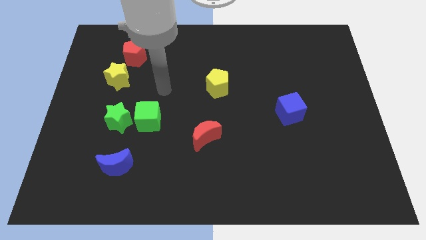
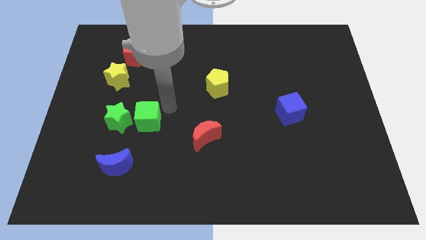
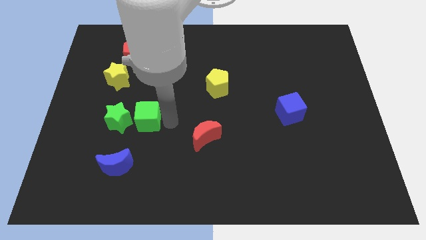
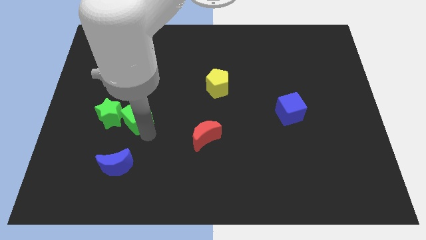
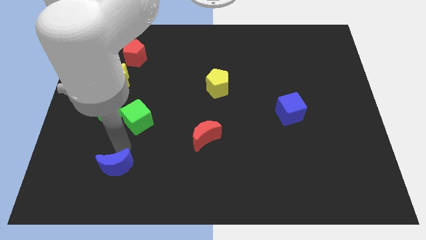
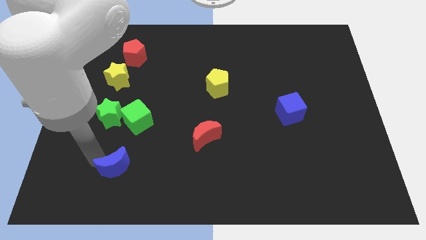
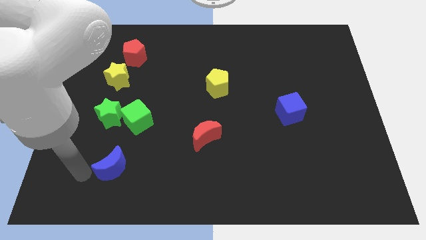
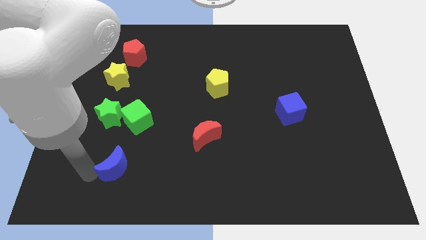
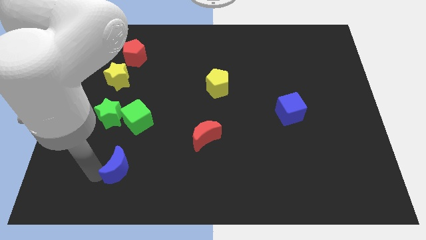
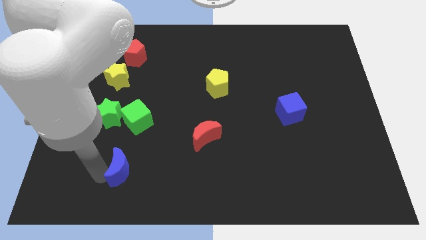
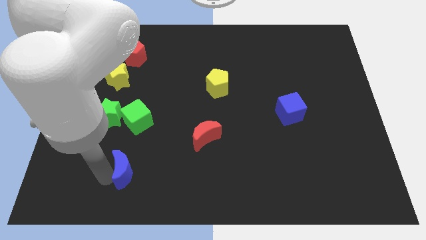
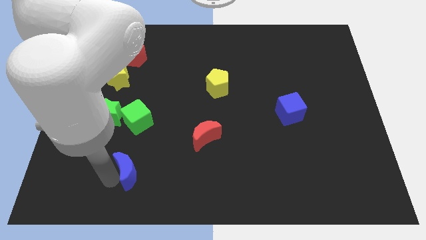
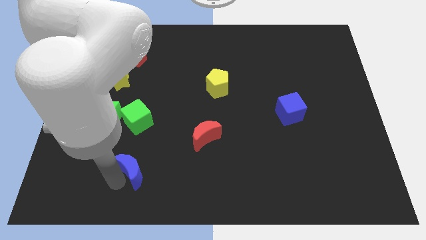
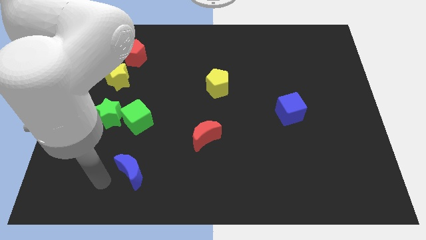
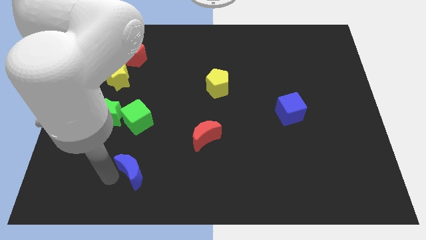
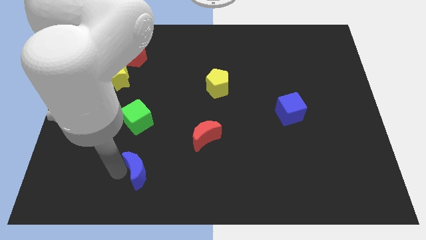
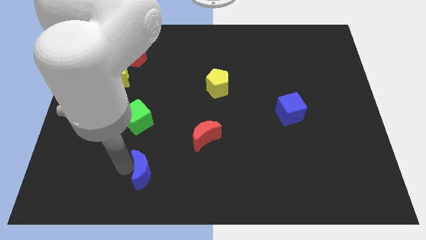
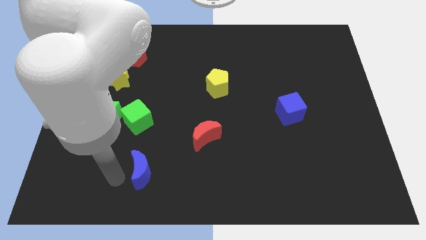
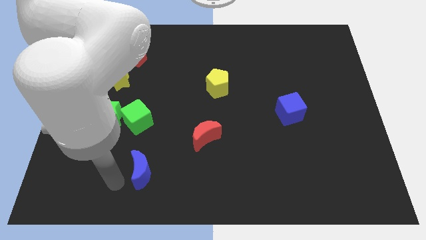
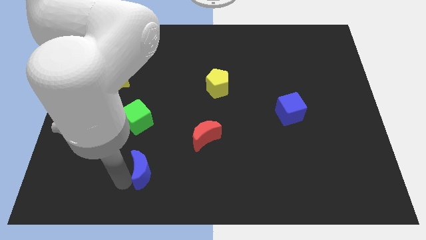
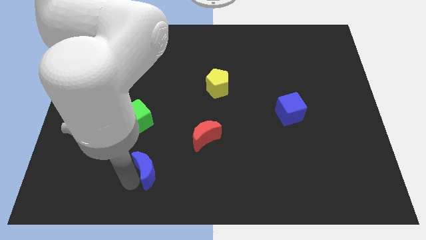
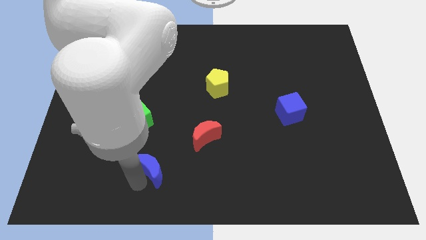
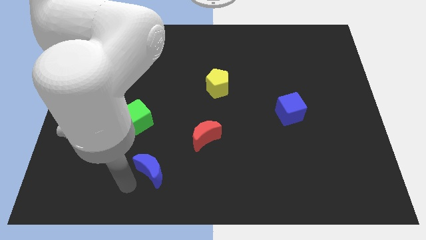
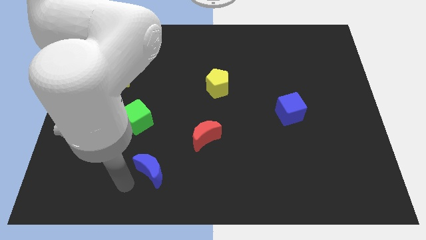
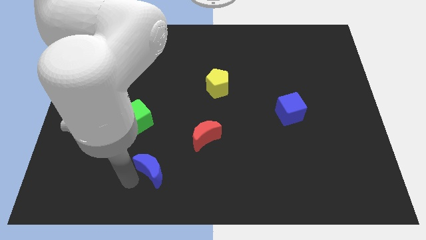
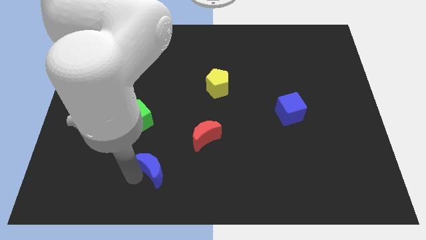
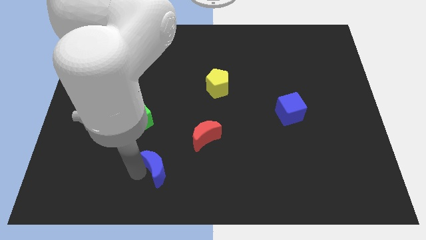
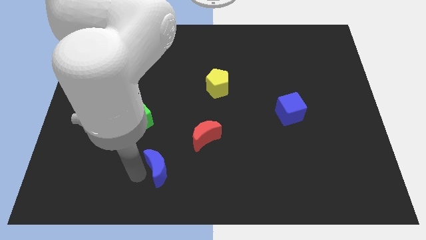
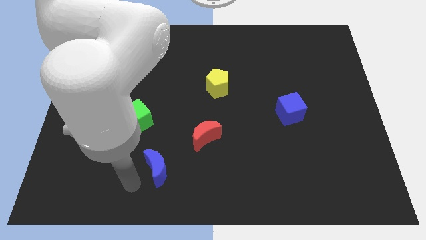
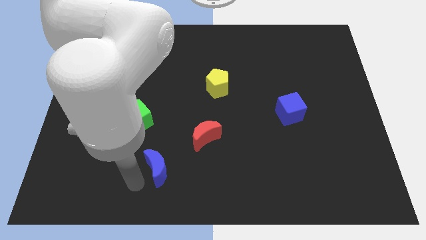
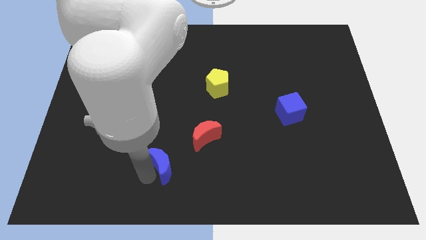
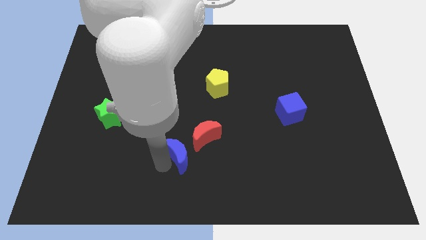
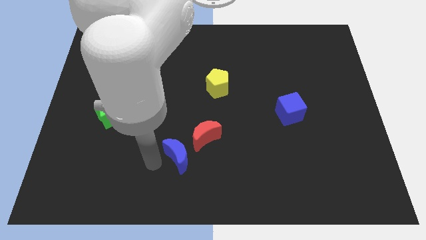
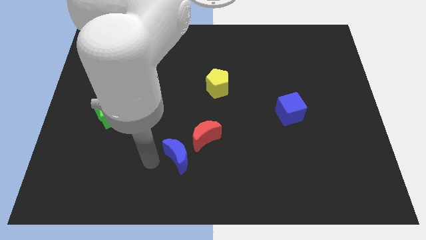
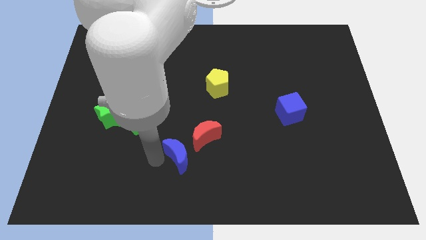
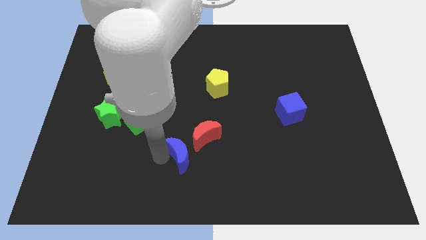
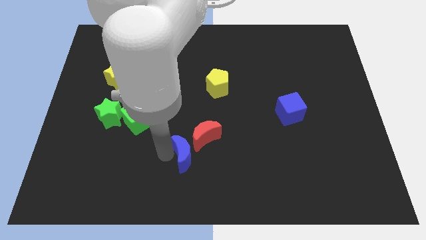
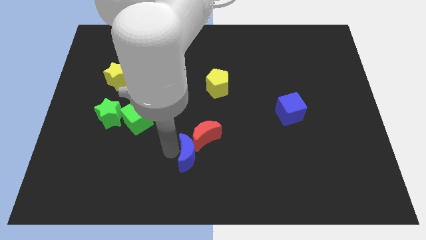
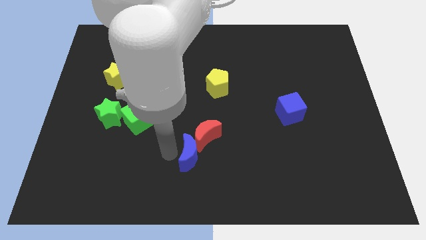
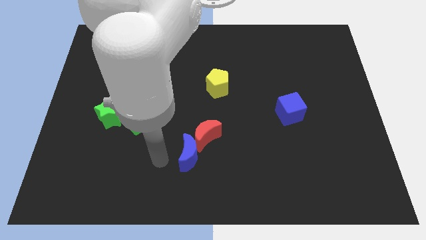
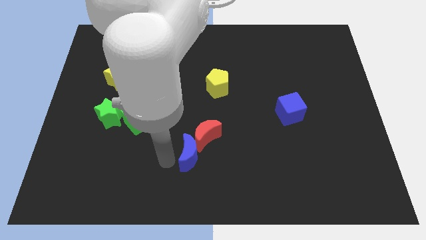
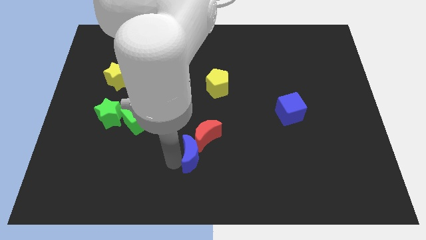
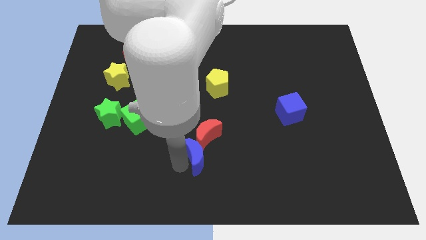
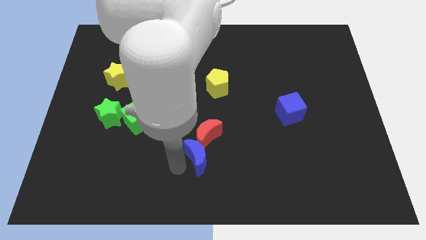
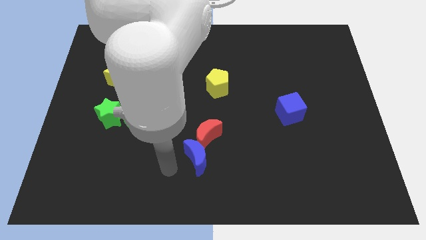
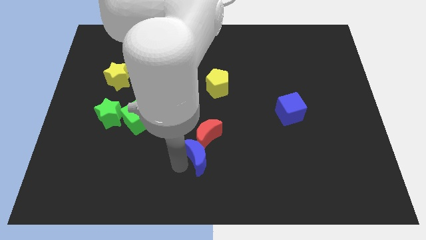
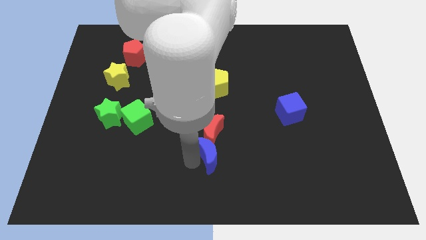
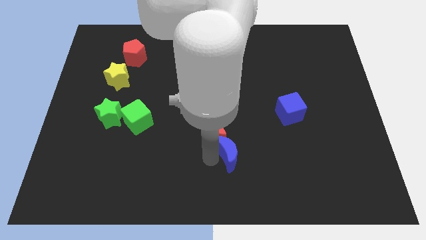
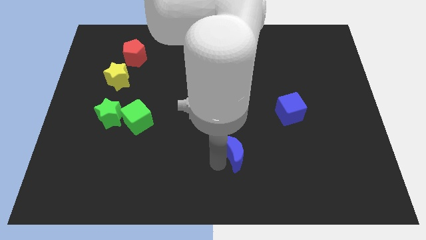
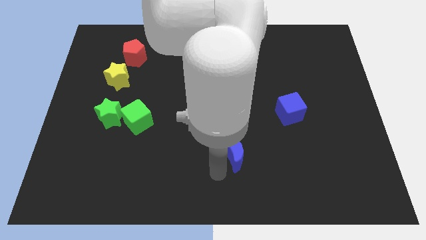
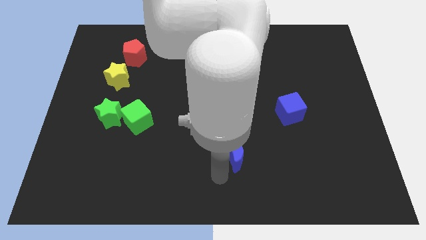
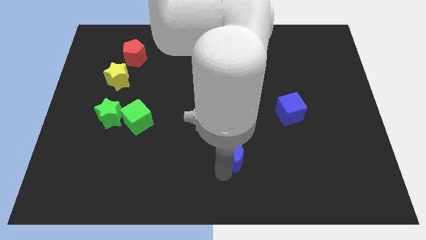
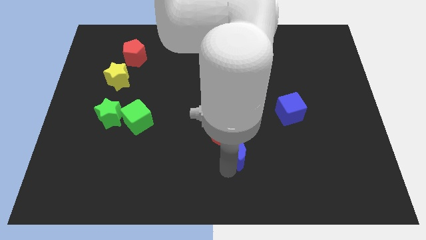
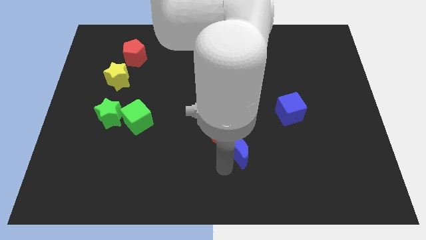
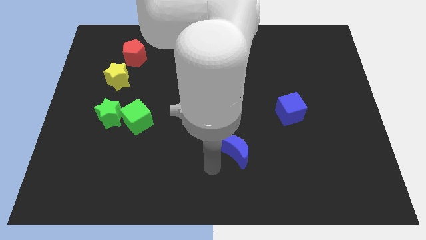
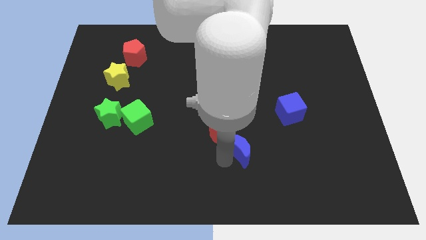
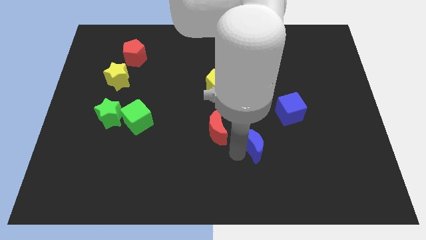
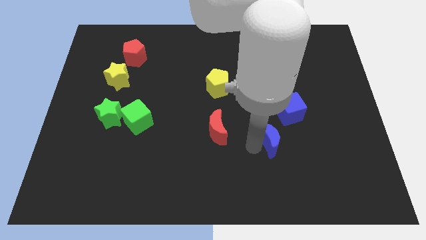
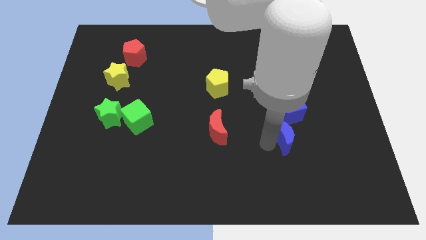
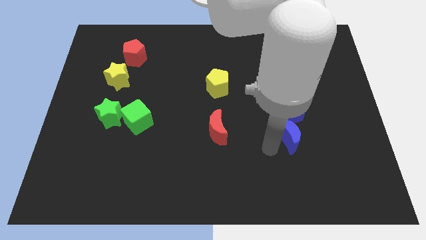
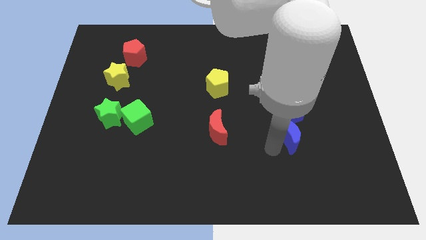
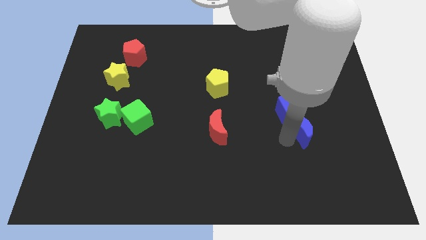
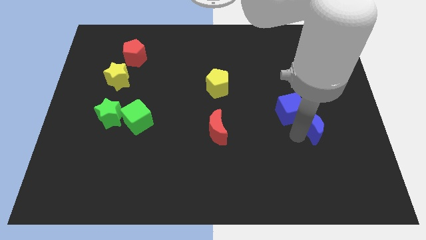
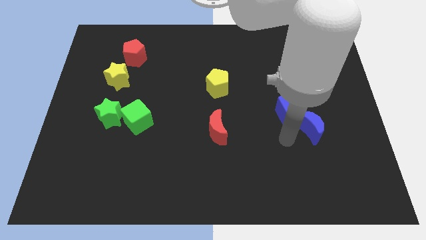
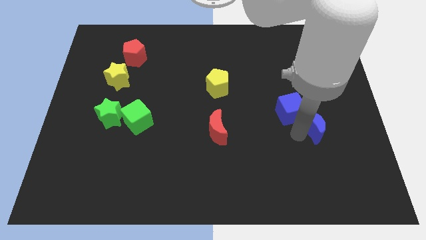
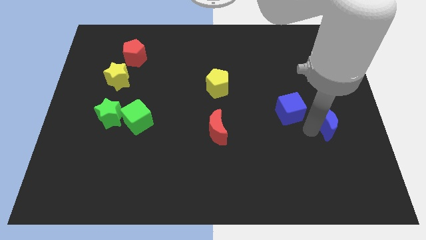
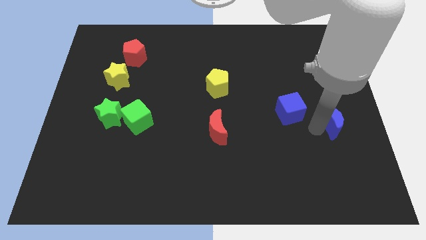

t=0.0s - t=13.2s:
move the blue moon to the center right
